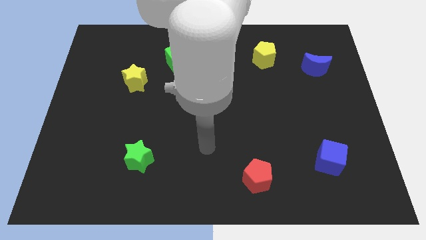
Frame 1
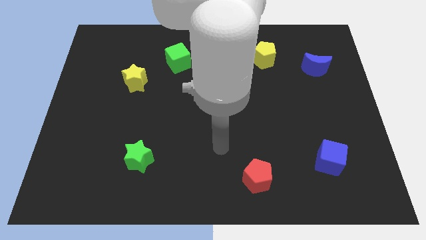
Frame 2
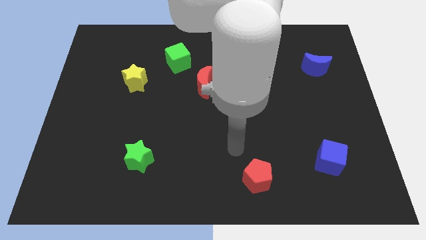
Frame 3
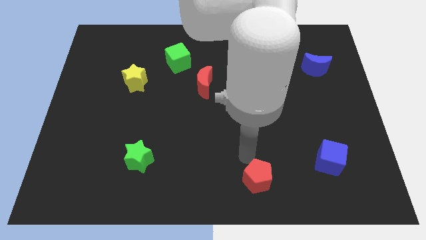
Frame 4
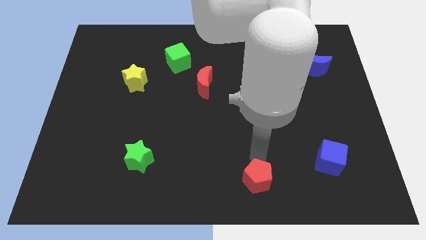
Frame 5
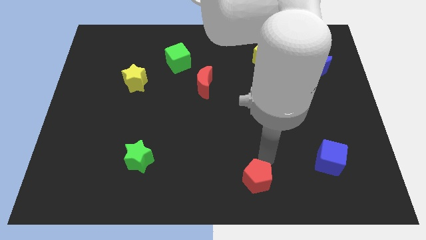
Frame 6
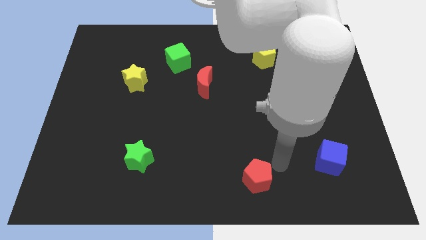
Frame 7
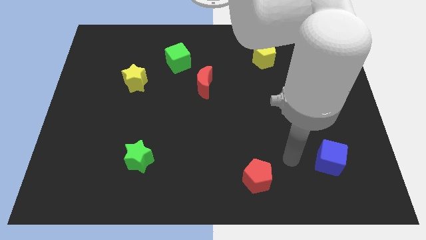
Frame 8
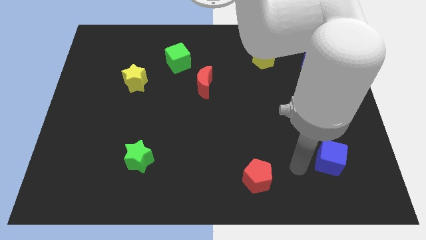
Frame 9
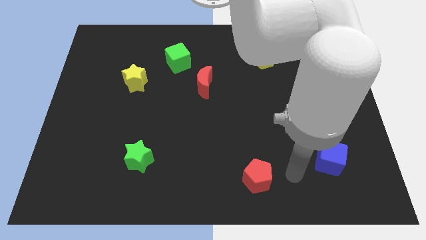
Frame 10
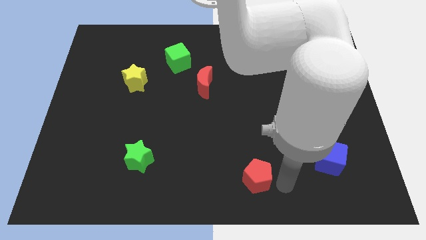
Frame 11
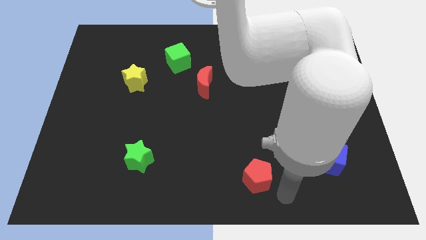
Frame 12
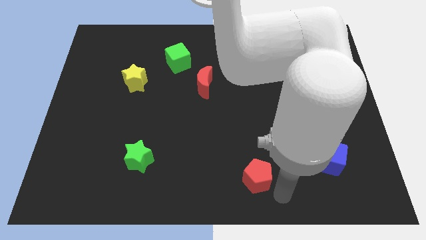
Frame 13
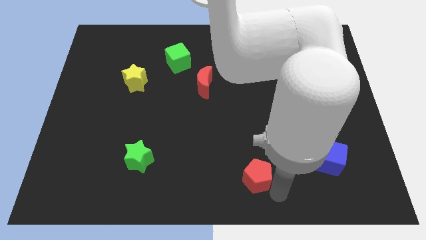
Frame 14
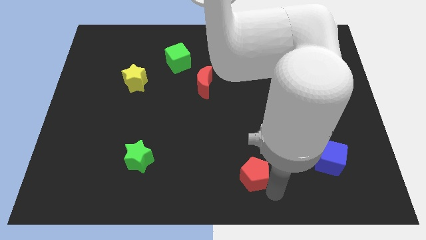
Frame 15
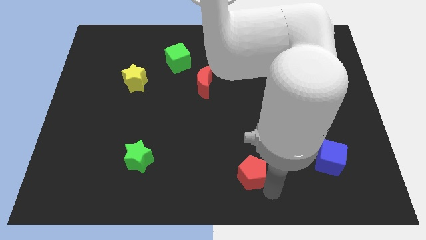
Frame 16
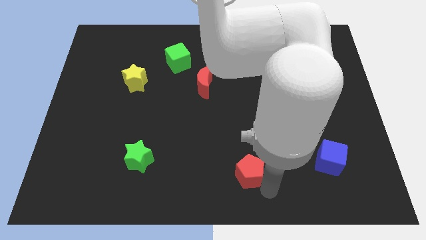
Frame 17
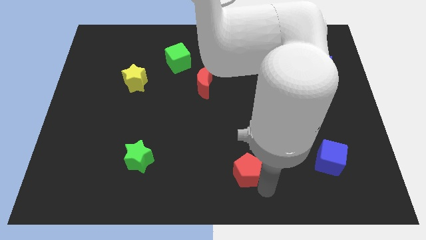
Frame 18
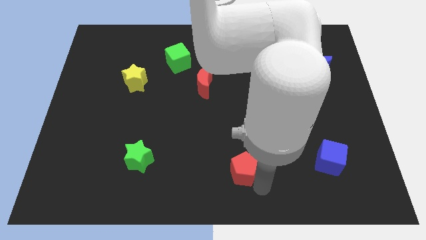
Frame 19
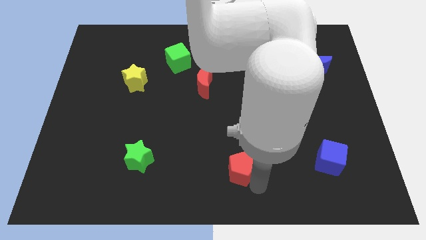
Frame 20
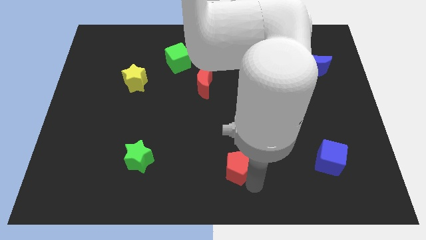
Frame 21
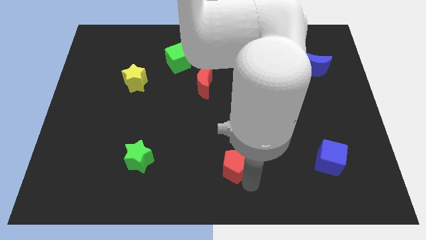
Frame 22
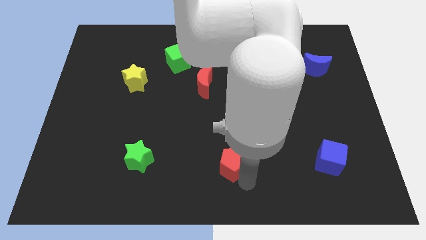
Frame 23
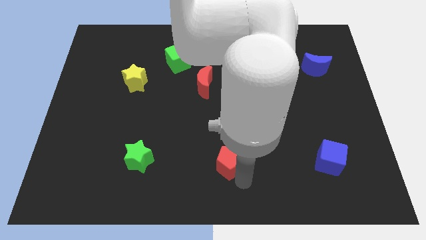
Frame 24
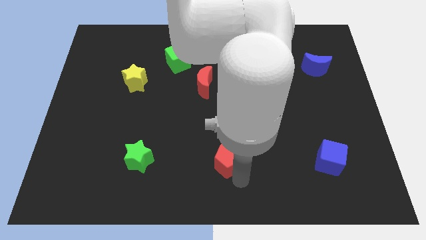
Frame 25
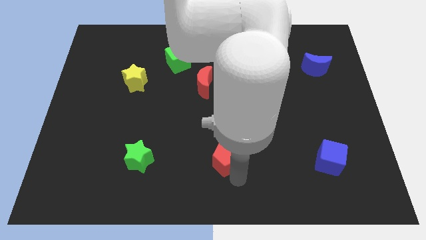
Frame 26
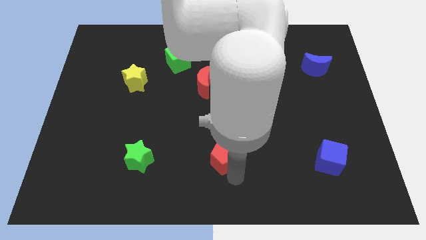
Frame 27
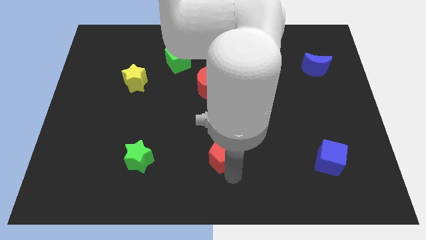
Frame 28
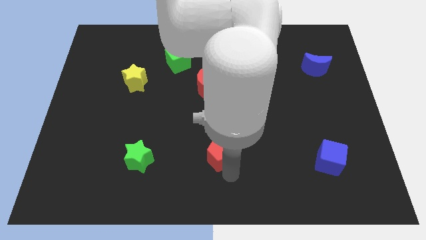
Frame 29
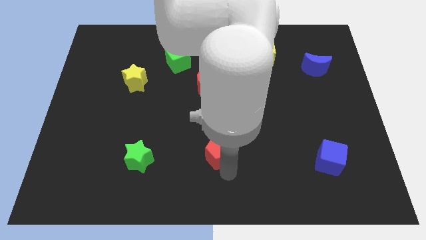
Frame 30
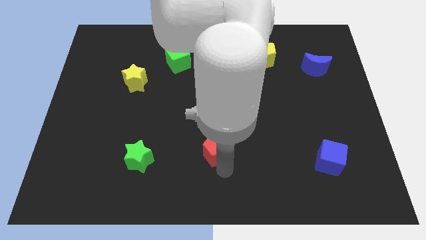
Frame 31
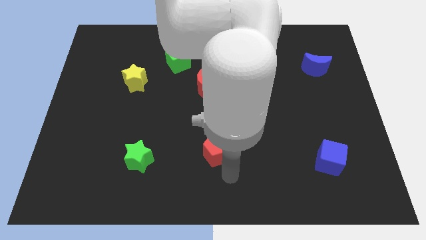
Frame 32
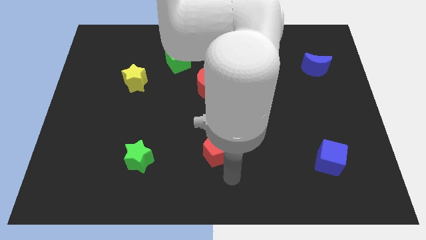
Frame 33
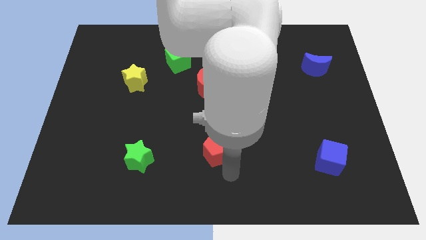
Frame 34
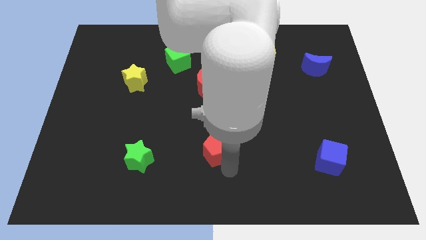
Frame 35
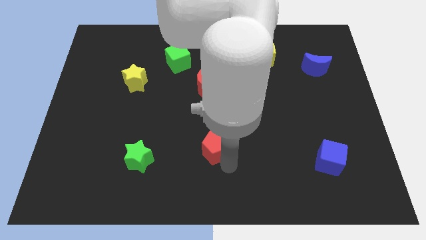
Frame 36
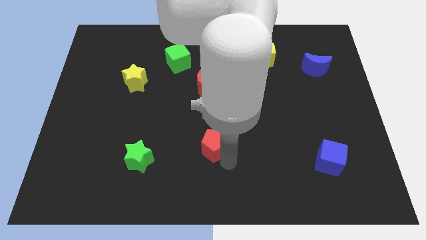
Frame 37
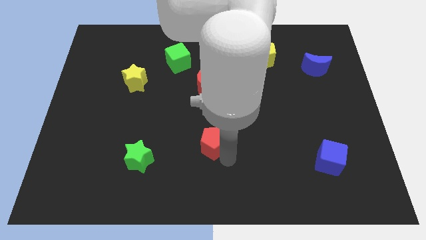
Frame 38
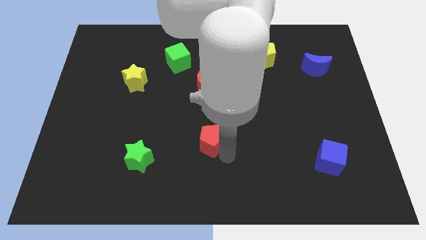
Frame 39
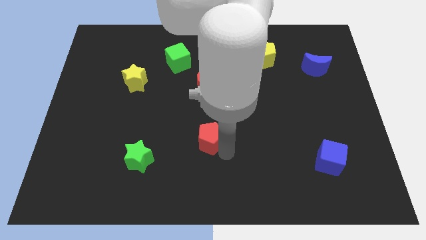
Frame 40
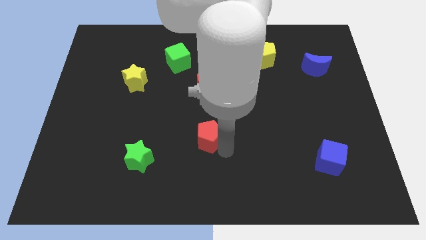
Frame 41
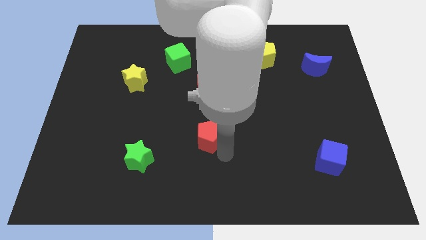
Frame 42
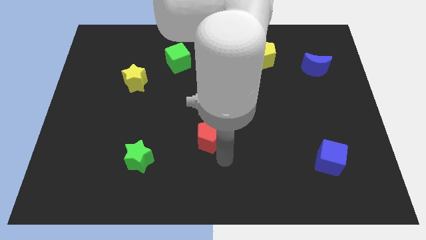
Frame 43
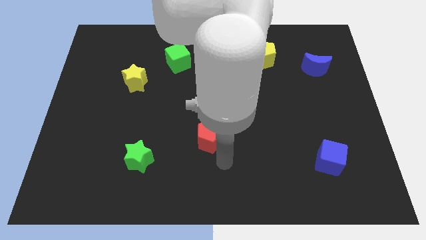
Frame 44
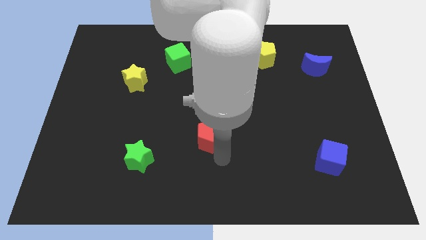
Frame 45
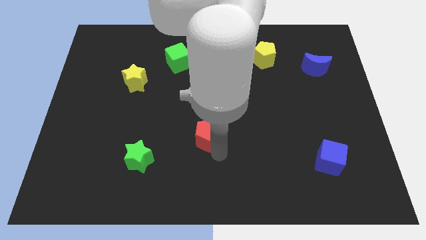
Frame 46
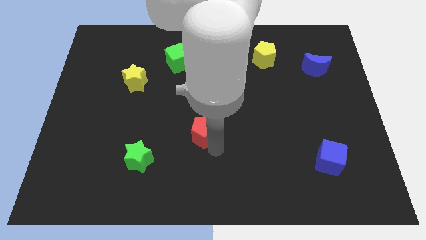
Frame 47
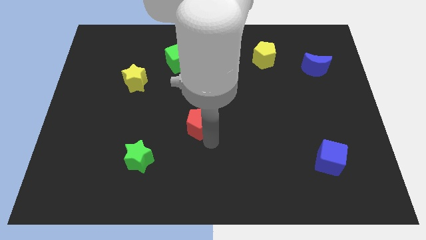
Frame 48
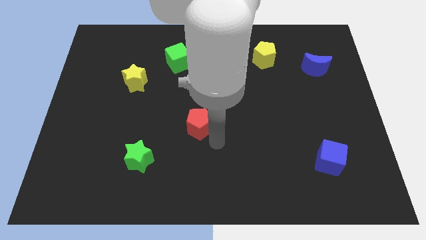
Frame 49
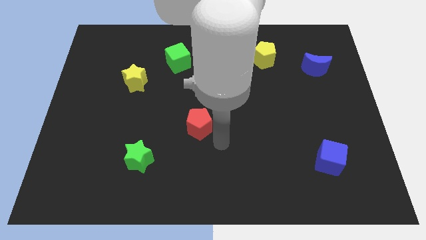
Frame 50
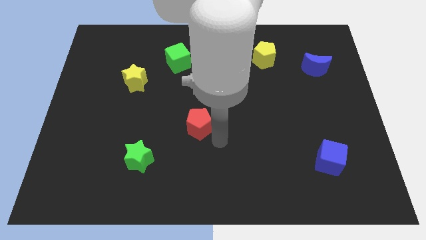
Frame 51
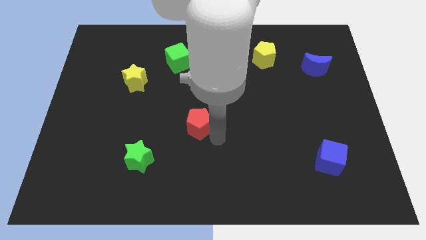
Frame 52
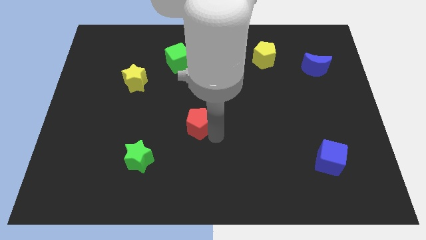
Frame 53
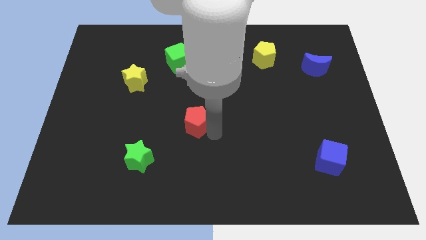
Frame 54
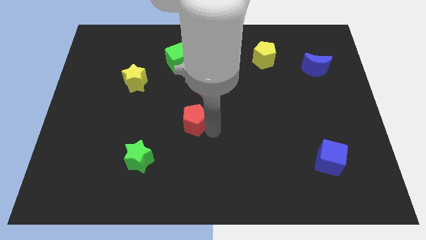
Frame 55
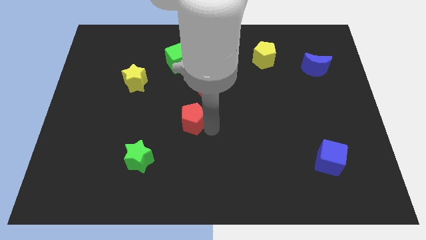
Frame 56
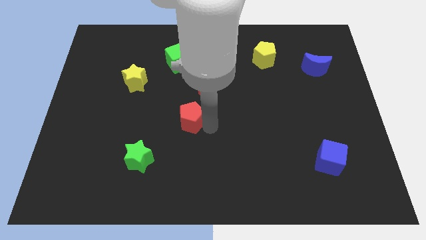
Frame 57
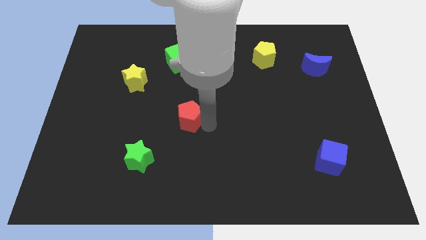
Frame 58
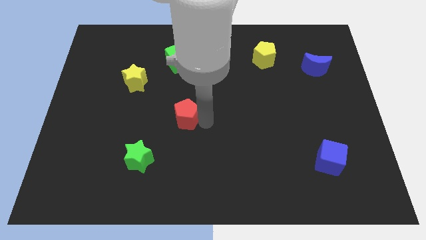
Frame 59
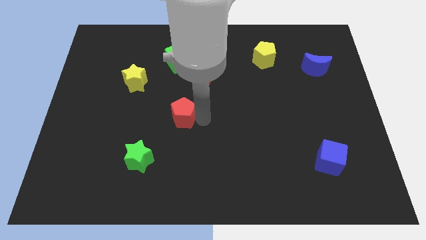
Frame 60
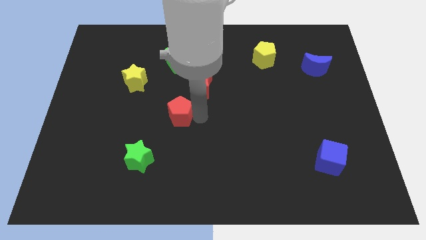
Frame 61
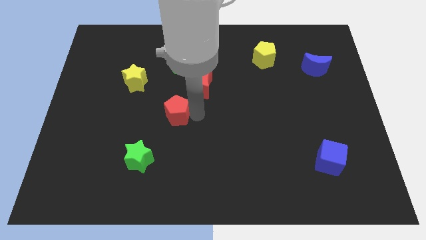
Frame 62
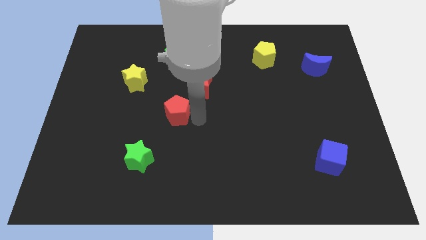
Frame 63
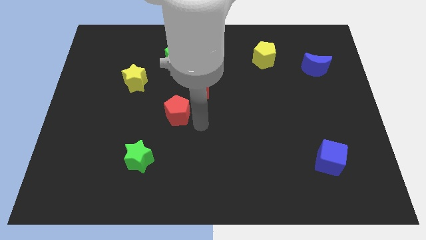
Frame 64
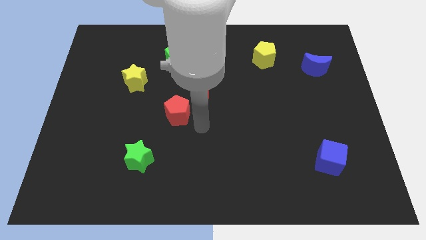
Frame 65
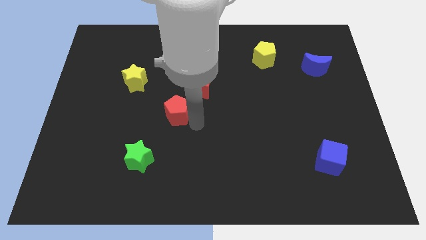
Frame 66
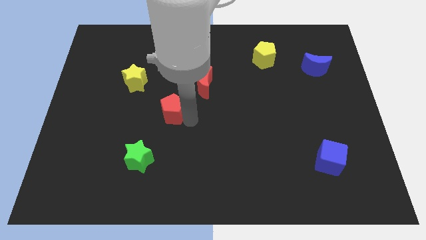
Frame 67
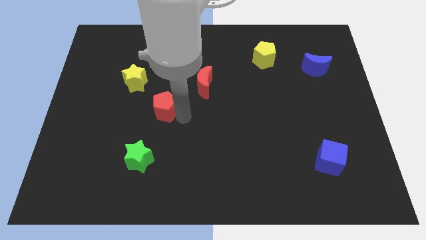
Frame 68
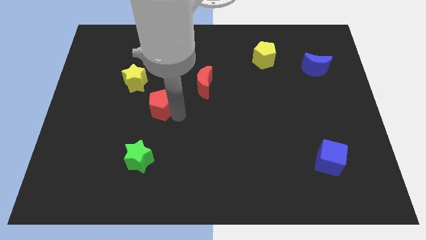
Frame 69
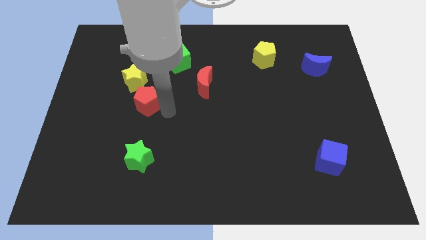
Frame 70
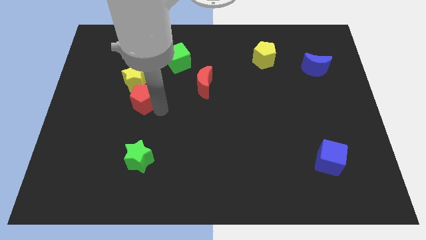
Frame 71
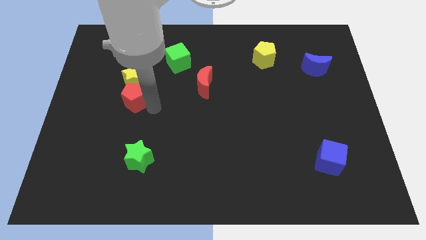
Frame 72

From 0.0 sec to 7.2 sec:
slide the red pentagon next to the yellow star

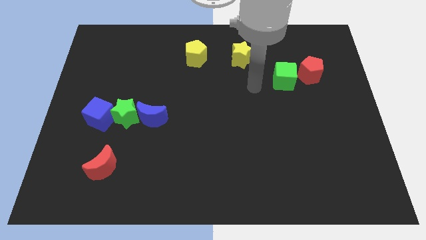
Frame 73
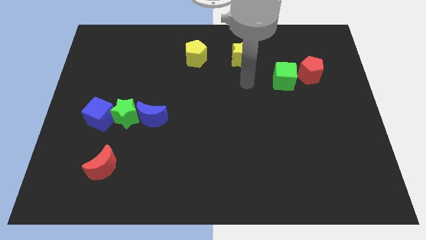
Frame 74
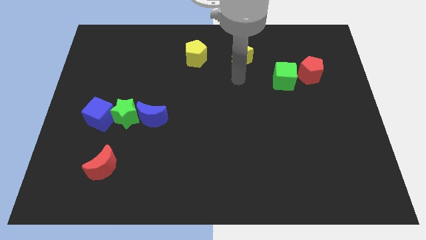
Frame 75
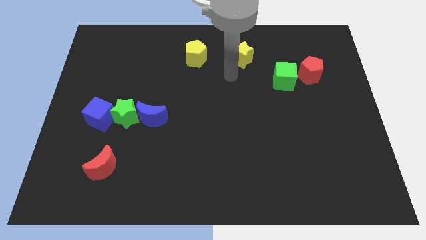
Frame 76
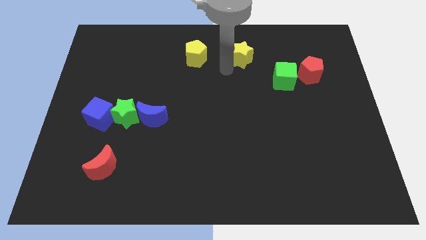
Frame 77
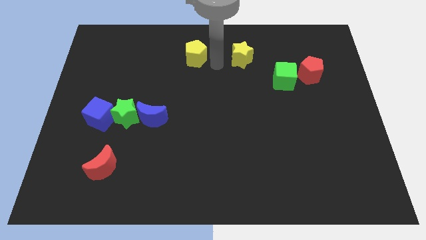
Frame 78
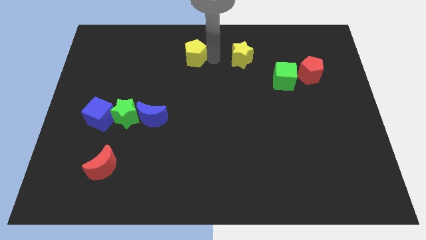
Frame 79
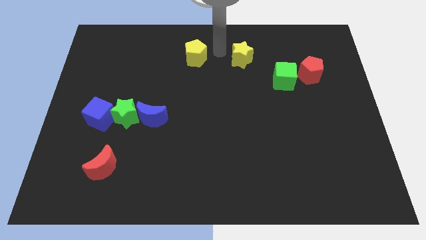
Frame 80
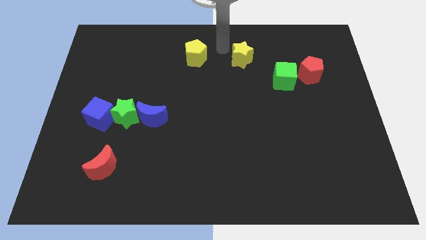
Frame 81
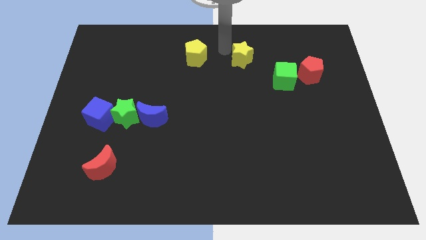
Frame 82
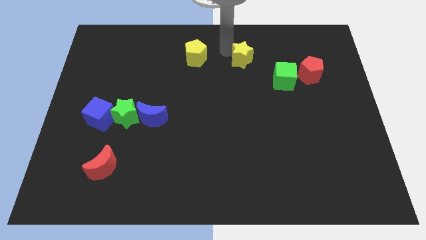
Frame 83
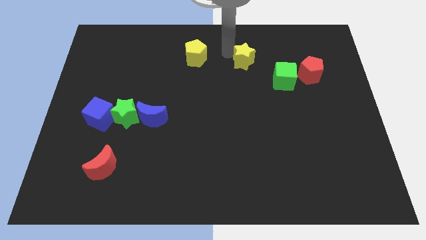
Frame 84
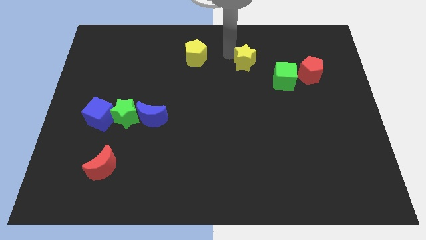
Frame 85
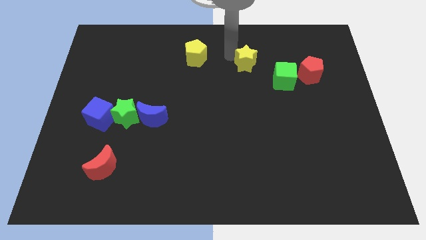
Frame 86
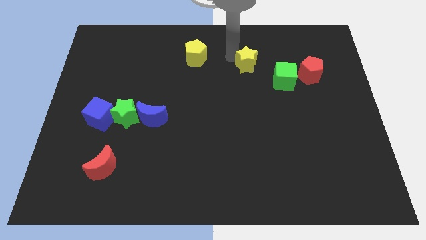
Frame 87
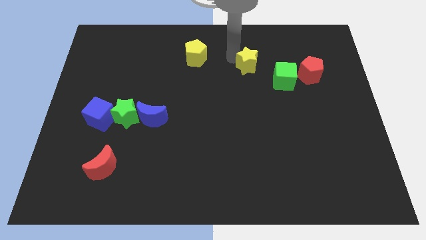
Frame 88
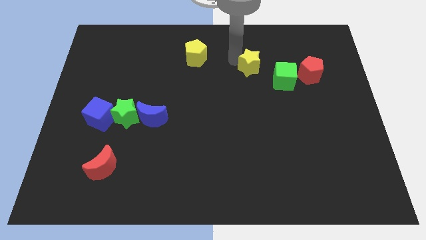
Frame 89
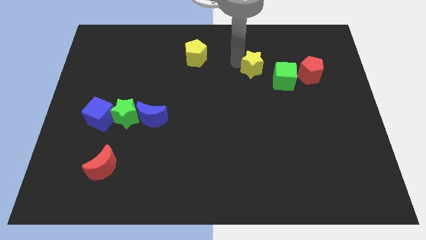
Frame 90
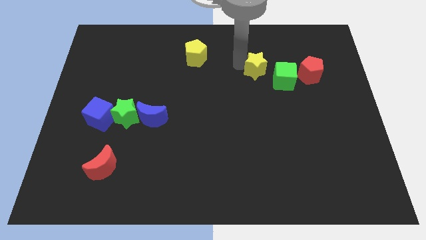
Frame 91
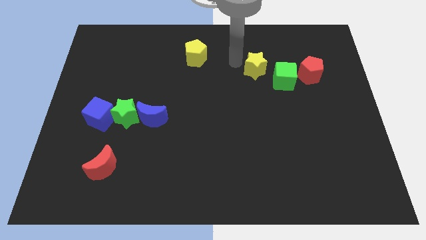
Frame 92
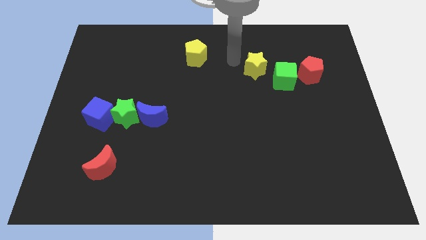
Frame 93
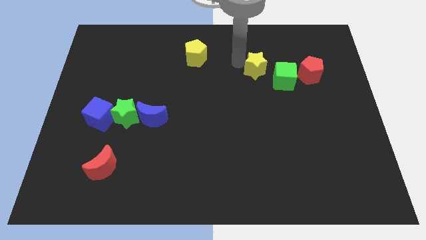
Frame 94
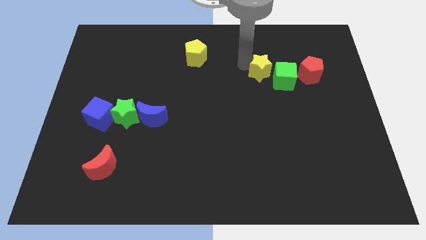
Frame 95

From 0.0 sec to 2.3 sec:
slide the yellow star close to the green cube
